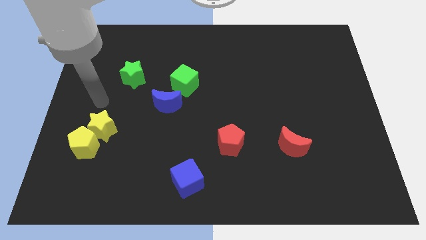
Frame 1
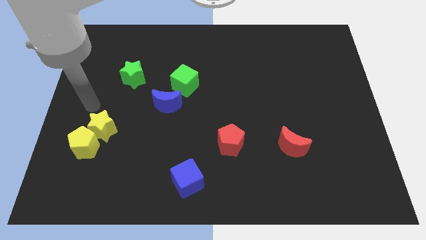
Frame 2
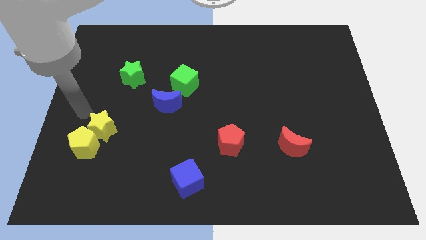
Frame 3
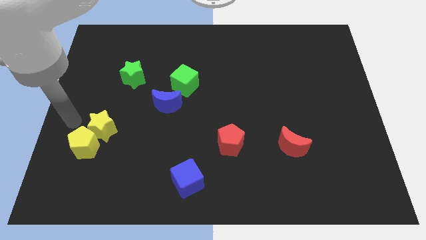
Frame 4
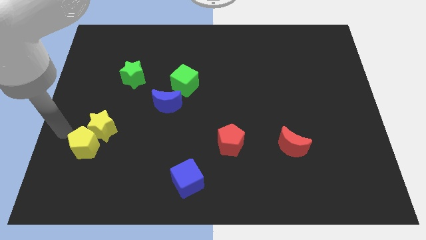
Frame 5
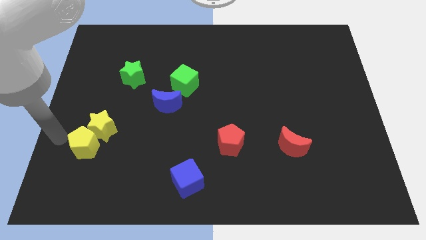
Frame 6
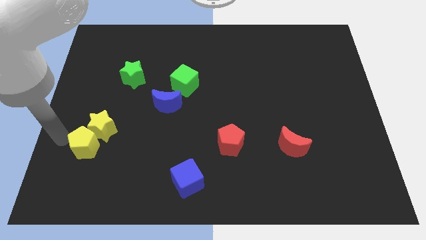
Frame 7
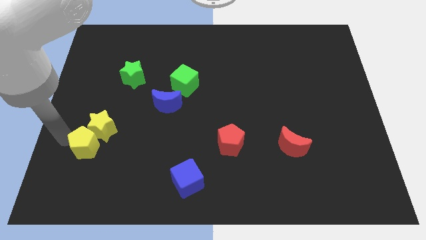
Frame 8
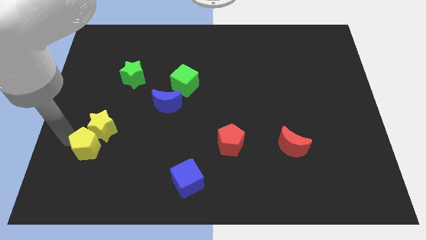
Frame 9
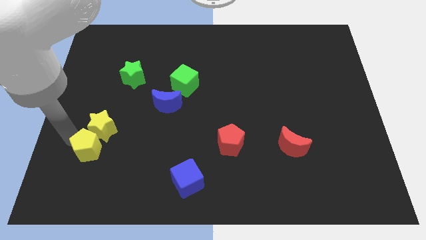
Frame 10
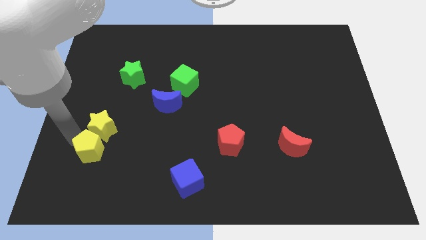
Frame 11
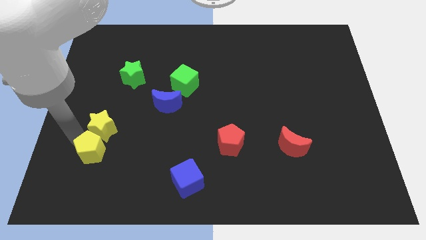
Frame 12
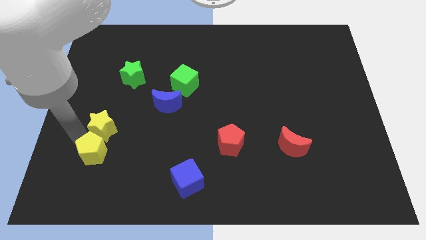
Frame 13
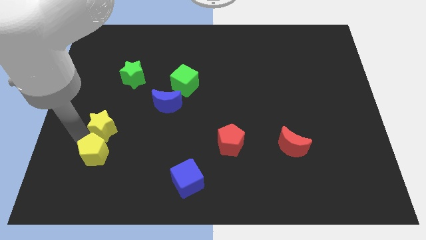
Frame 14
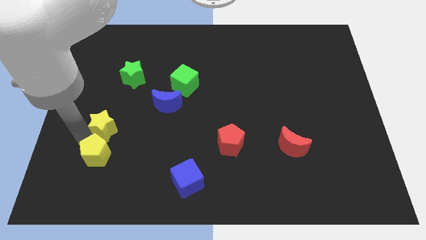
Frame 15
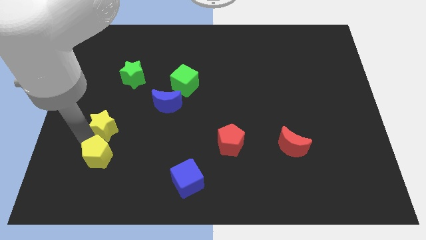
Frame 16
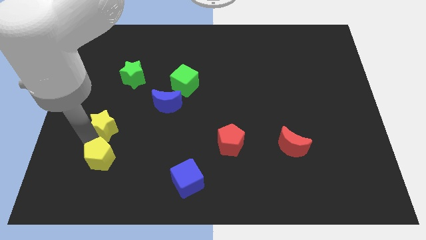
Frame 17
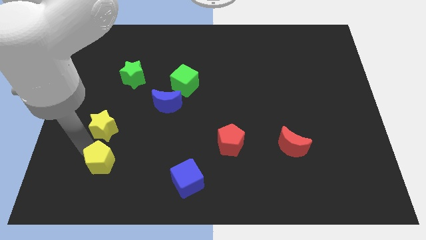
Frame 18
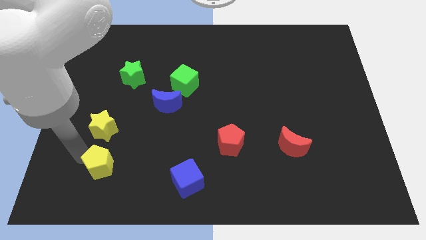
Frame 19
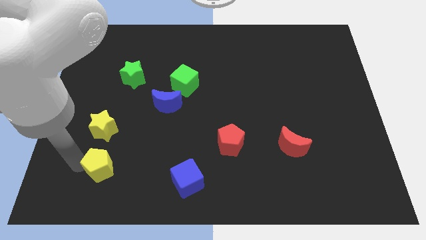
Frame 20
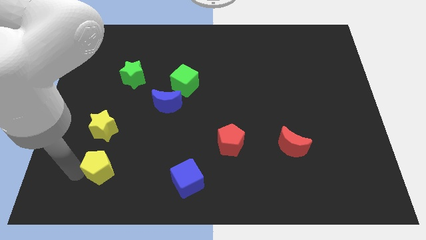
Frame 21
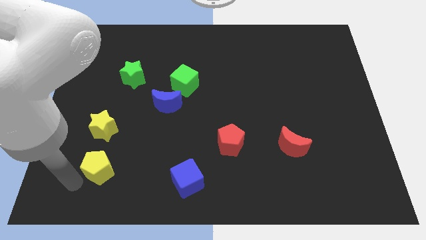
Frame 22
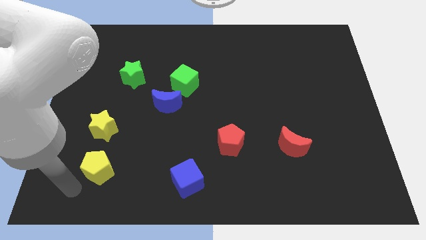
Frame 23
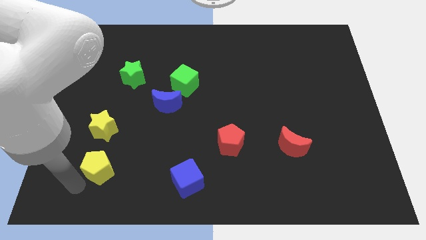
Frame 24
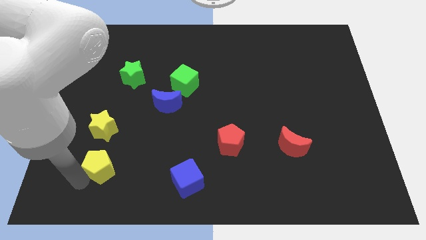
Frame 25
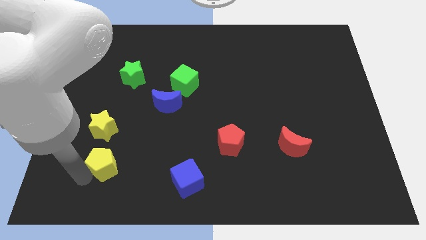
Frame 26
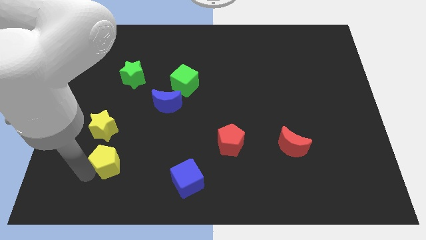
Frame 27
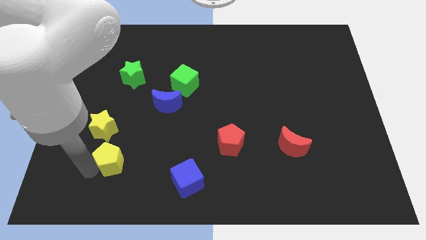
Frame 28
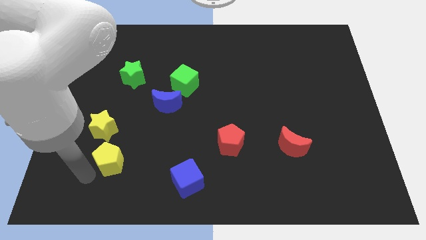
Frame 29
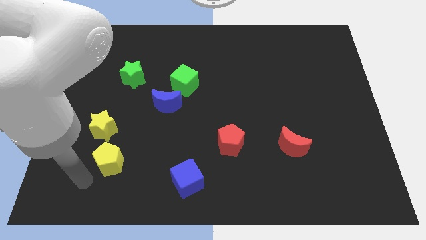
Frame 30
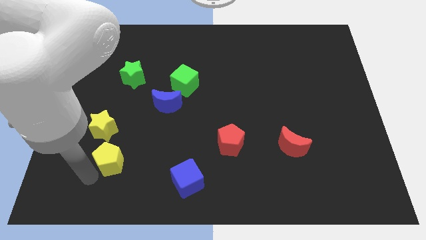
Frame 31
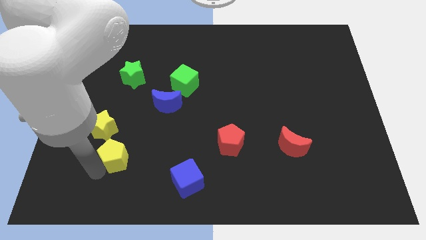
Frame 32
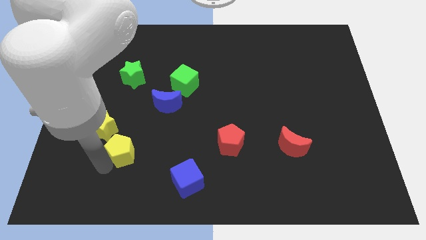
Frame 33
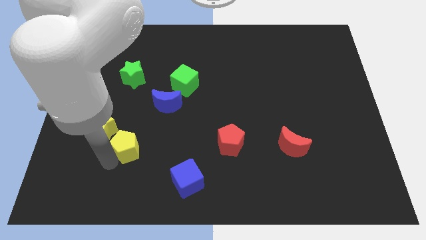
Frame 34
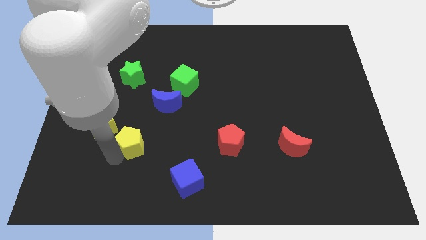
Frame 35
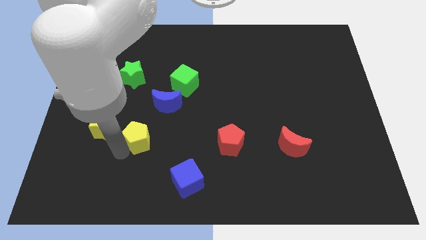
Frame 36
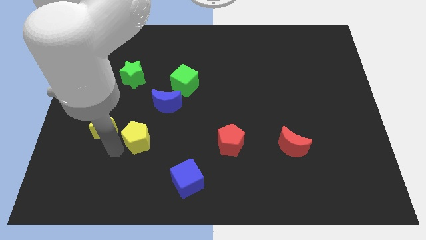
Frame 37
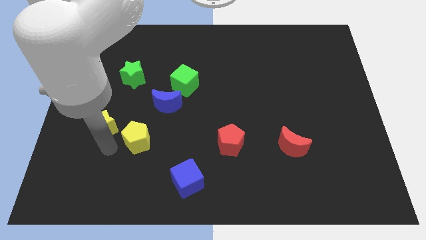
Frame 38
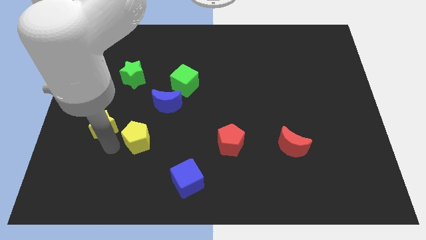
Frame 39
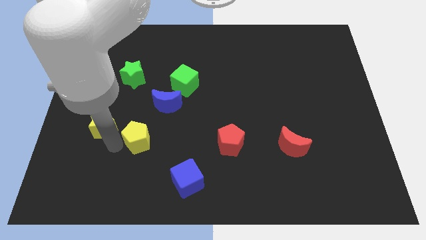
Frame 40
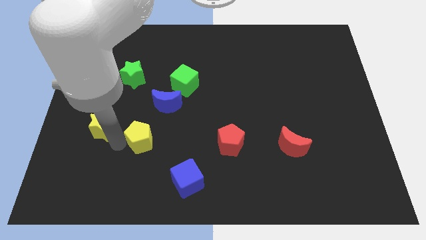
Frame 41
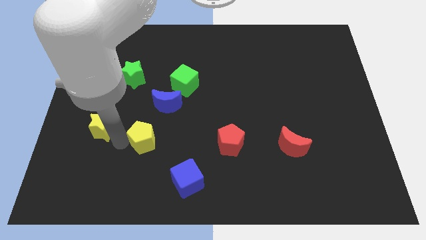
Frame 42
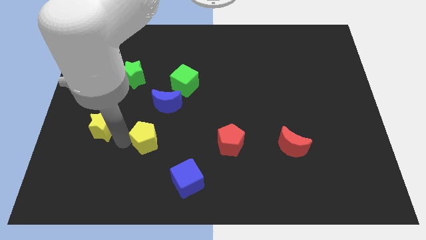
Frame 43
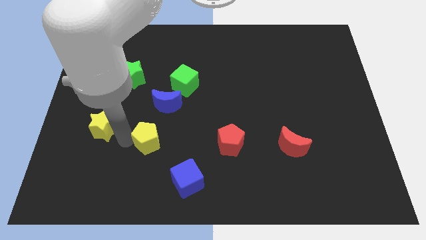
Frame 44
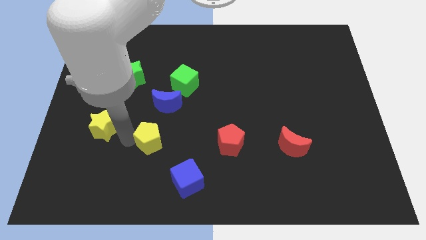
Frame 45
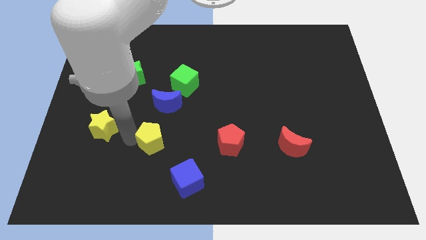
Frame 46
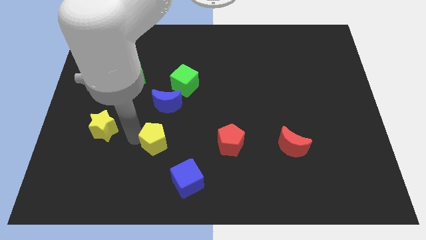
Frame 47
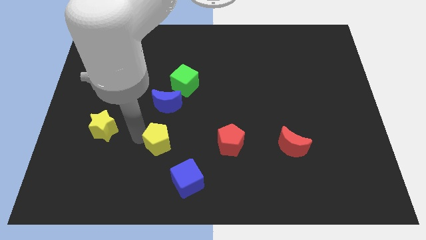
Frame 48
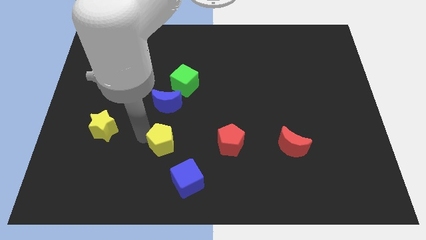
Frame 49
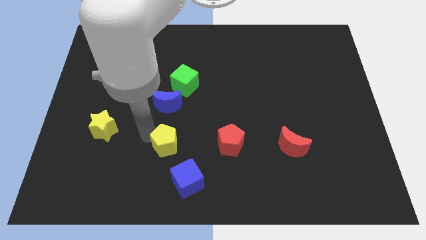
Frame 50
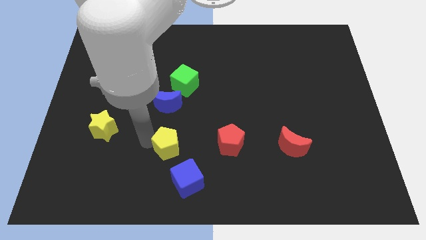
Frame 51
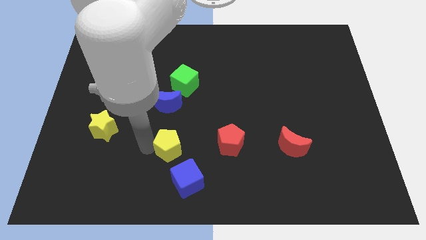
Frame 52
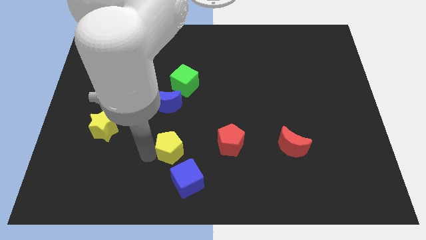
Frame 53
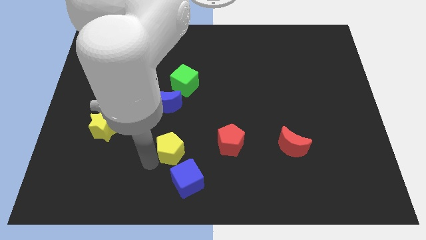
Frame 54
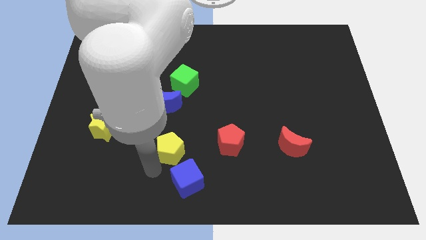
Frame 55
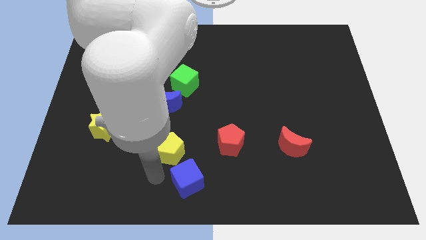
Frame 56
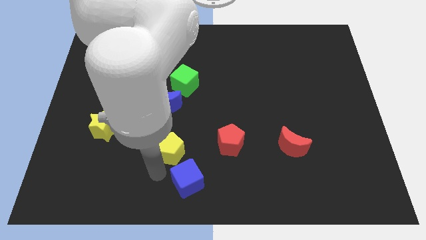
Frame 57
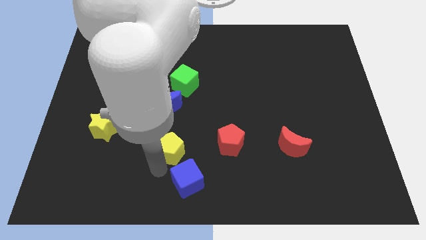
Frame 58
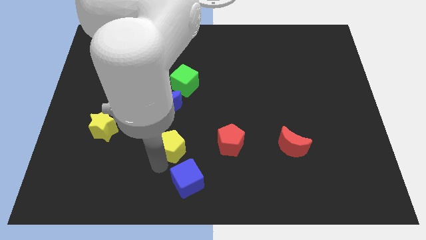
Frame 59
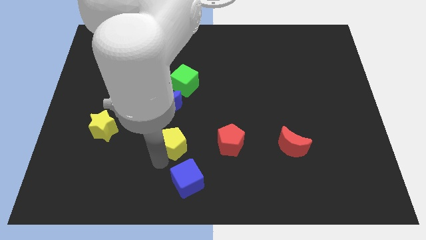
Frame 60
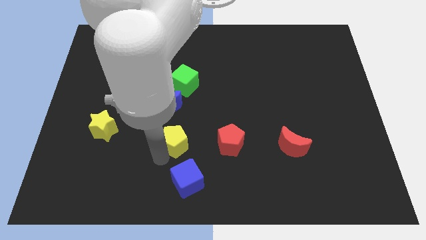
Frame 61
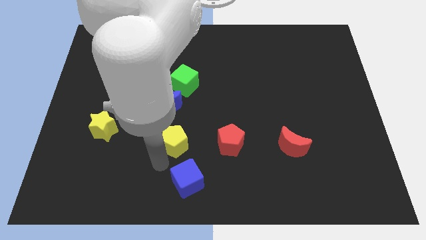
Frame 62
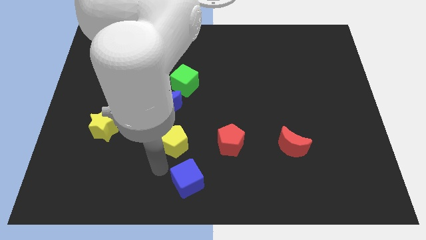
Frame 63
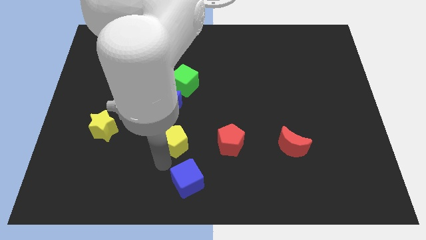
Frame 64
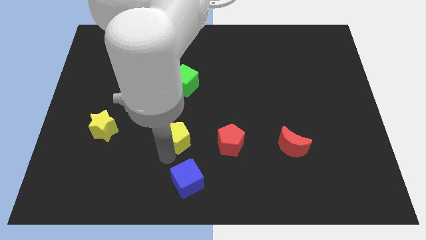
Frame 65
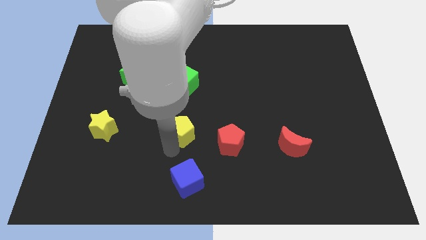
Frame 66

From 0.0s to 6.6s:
move the yellow pentagon to the bottom right of the blue moon

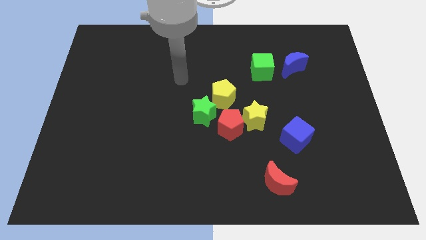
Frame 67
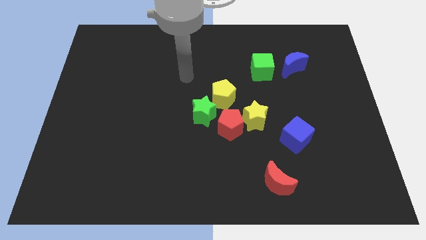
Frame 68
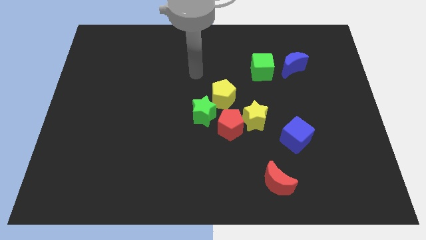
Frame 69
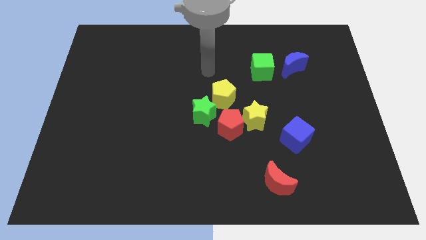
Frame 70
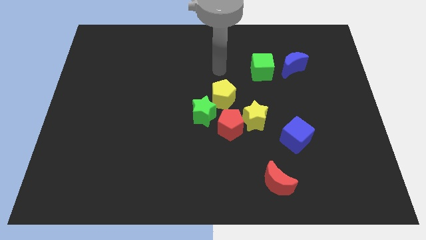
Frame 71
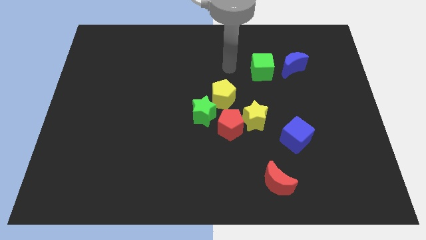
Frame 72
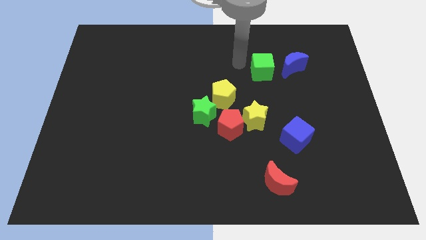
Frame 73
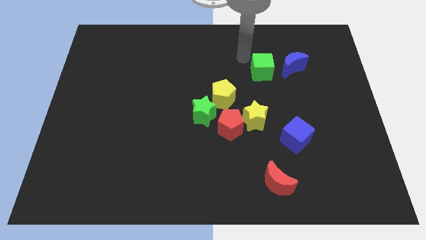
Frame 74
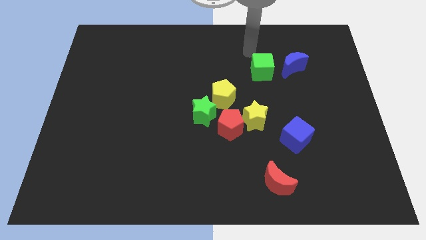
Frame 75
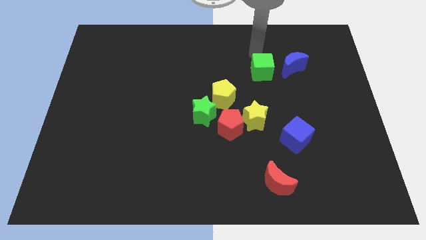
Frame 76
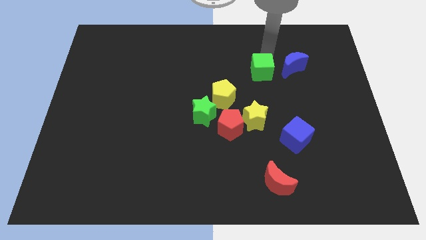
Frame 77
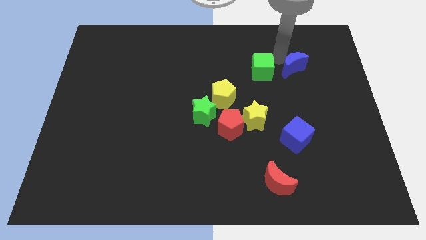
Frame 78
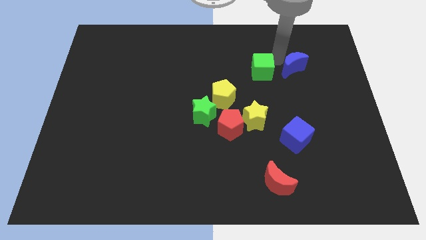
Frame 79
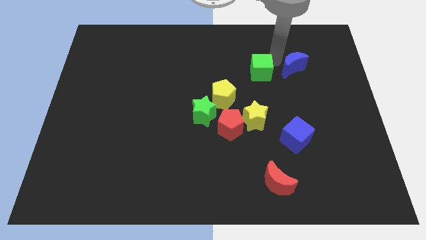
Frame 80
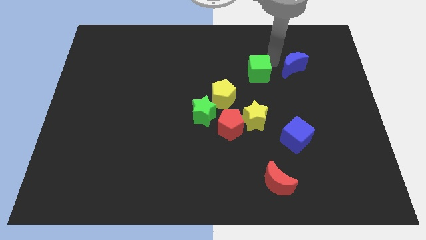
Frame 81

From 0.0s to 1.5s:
push the green cube to the top right of the yellow pentagon
